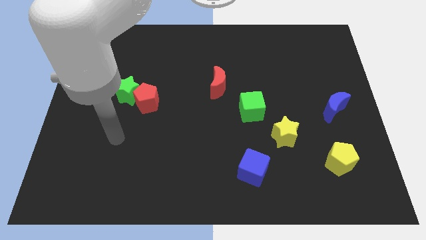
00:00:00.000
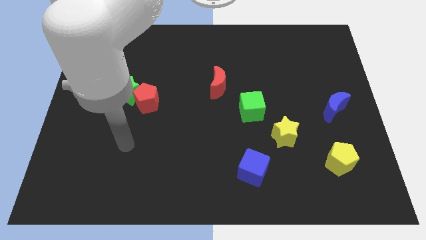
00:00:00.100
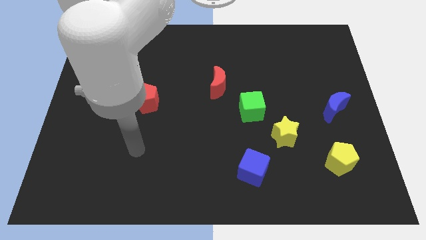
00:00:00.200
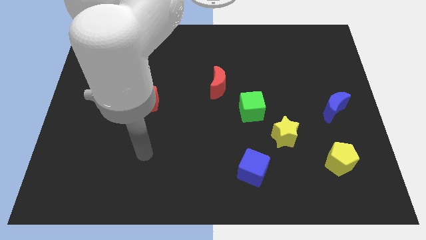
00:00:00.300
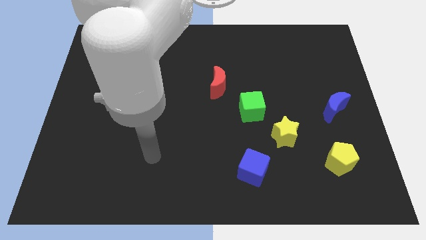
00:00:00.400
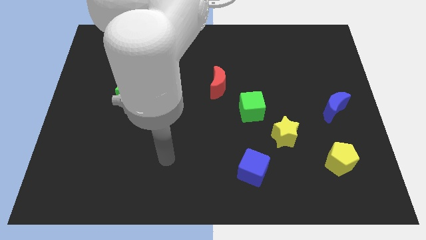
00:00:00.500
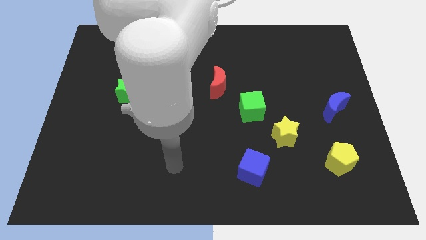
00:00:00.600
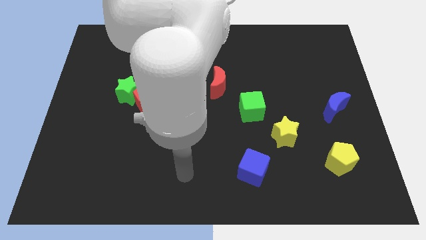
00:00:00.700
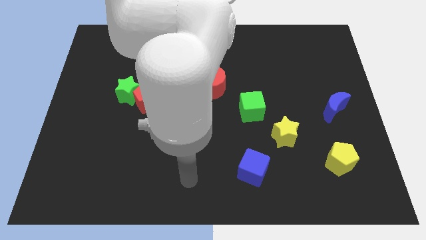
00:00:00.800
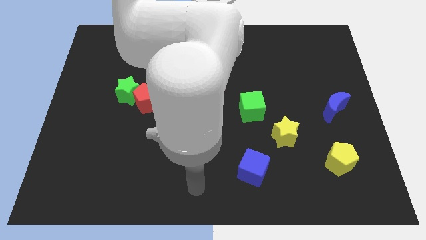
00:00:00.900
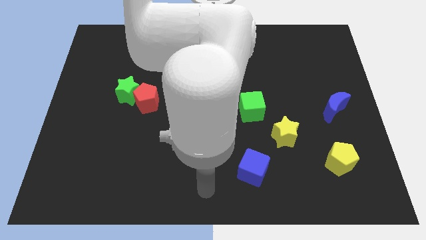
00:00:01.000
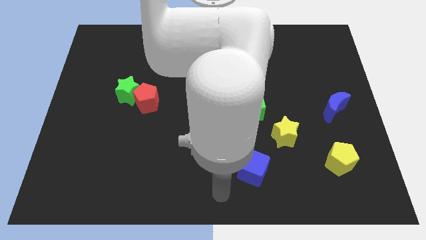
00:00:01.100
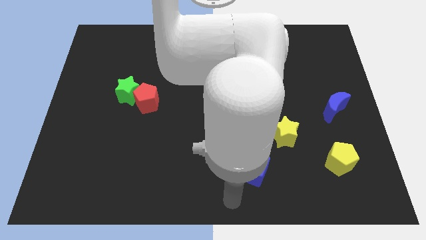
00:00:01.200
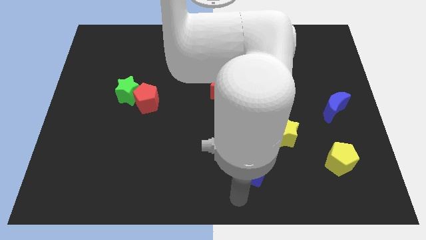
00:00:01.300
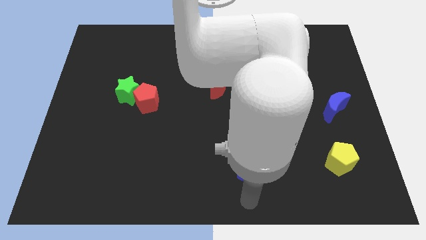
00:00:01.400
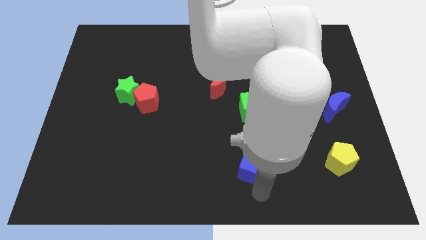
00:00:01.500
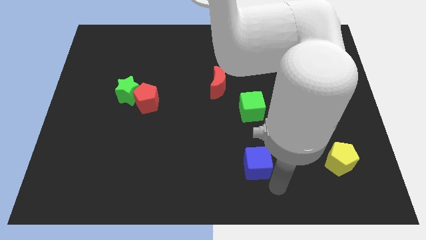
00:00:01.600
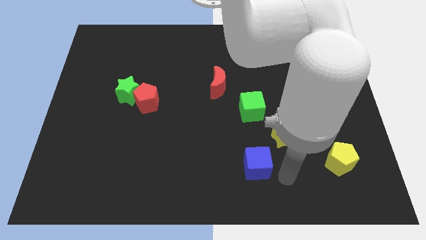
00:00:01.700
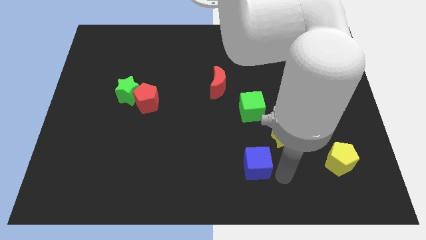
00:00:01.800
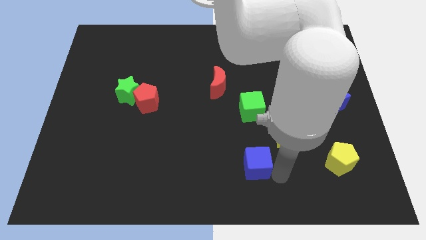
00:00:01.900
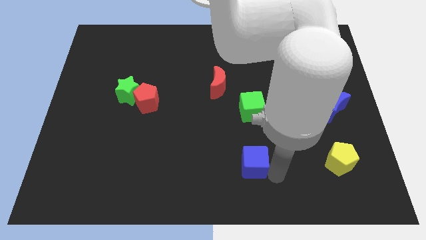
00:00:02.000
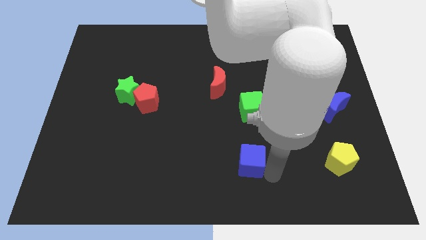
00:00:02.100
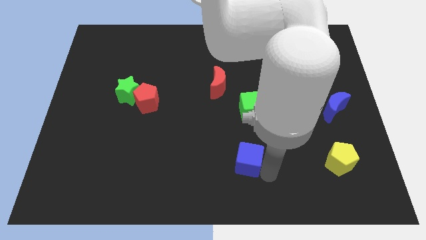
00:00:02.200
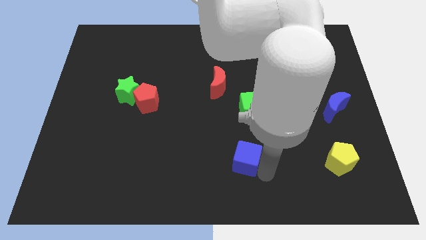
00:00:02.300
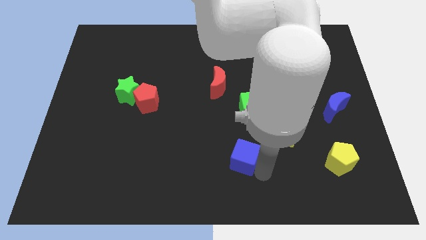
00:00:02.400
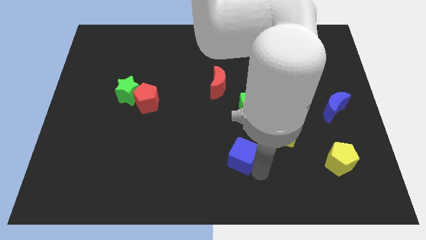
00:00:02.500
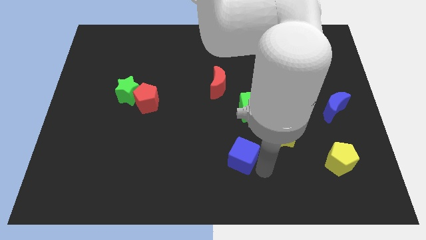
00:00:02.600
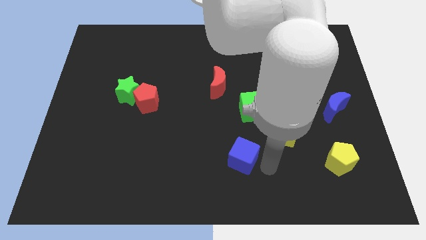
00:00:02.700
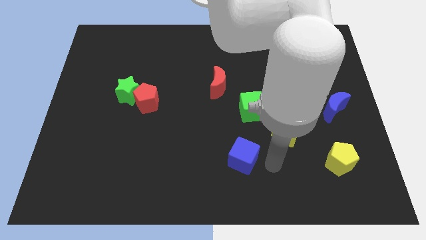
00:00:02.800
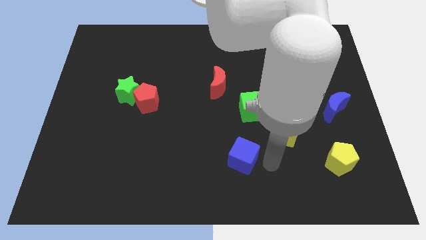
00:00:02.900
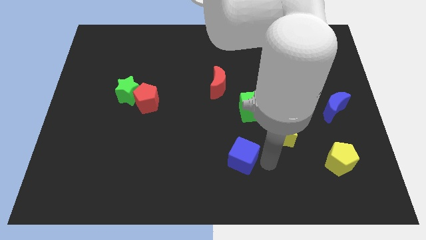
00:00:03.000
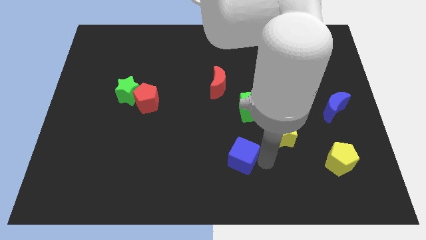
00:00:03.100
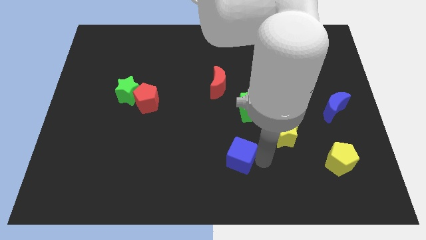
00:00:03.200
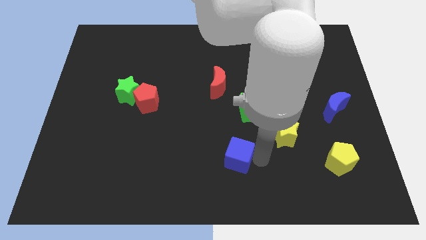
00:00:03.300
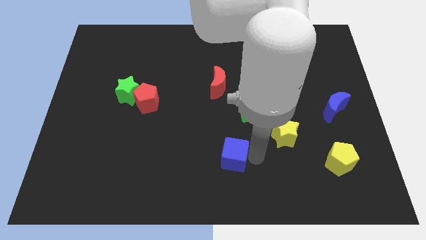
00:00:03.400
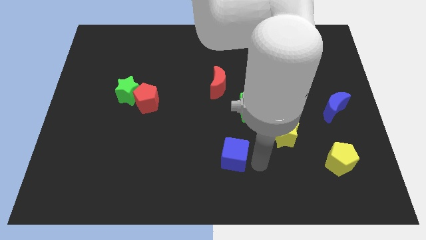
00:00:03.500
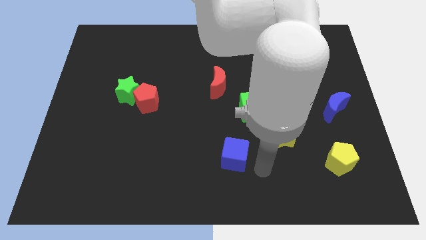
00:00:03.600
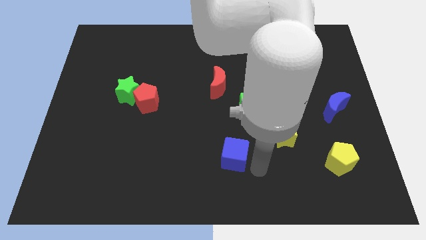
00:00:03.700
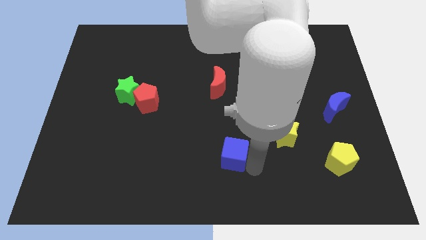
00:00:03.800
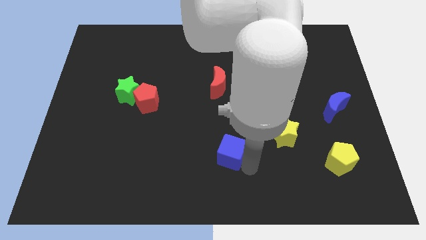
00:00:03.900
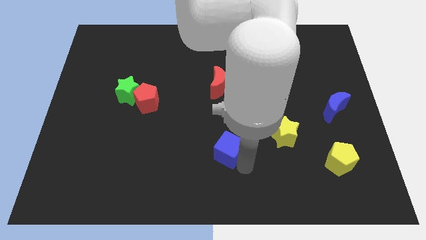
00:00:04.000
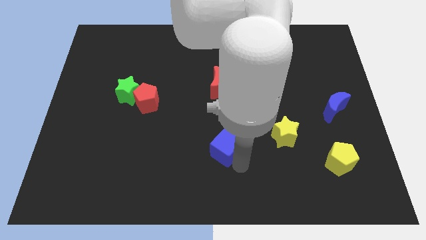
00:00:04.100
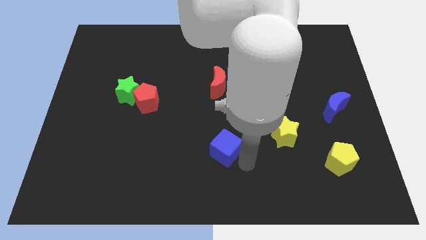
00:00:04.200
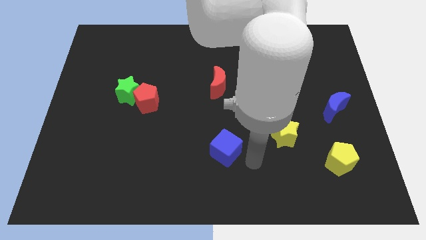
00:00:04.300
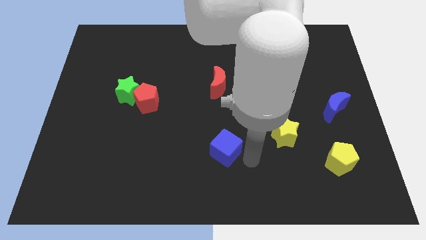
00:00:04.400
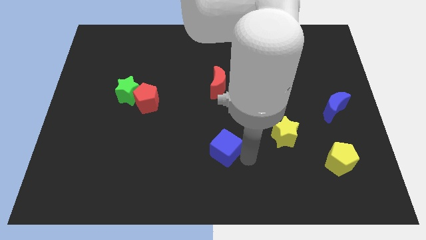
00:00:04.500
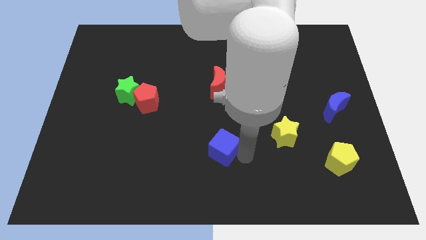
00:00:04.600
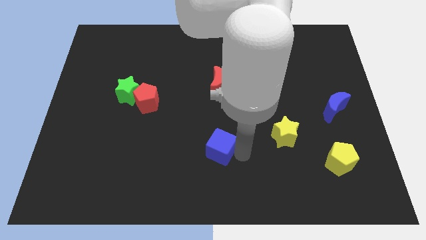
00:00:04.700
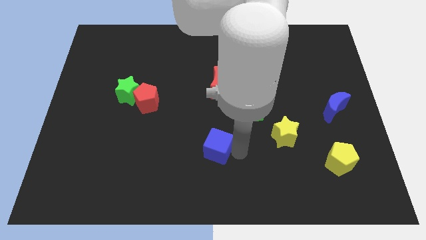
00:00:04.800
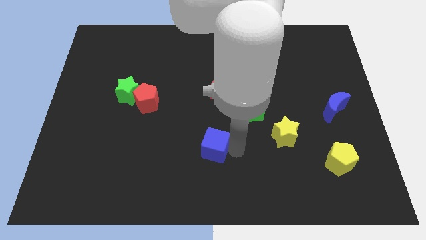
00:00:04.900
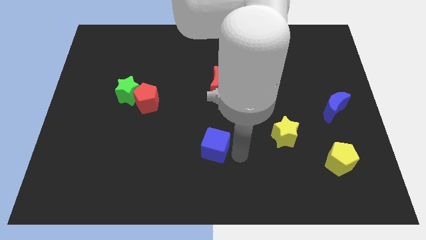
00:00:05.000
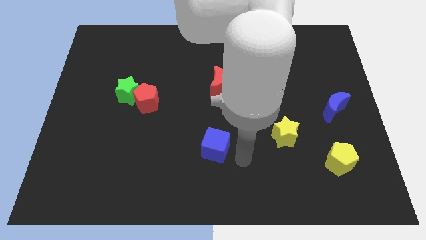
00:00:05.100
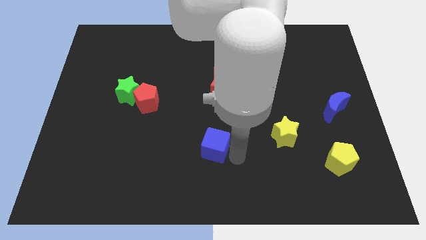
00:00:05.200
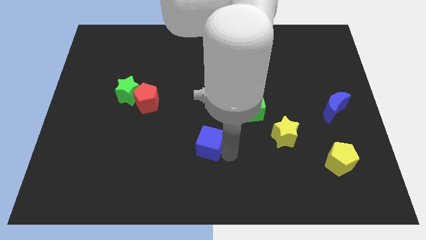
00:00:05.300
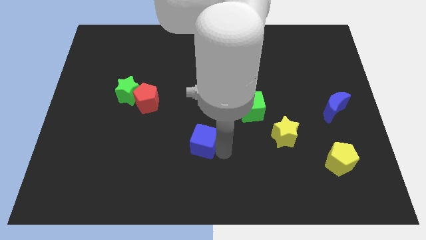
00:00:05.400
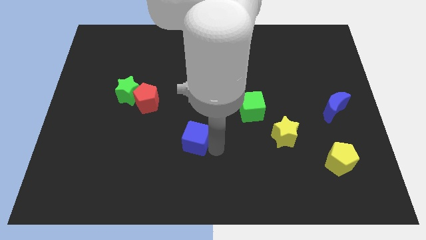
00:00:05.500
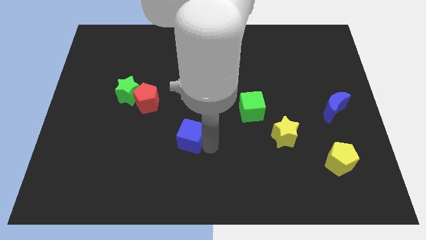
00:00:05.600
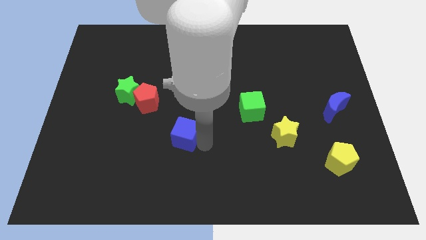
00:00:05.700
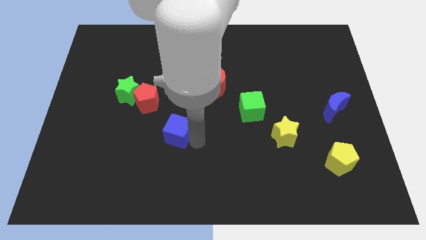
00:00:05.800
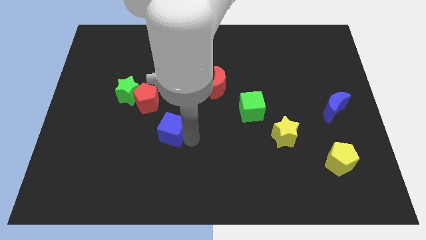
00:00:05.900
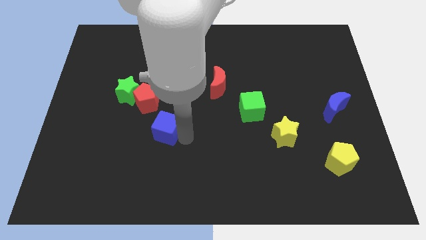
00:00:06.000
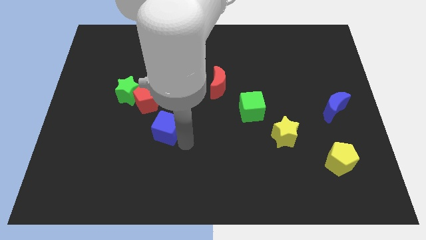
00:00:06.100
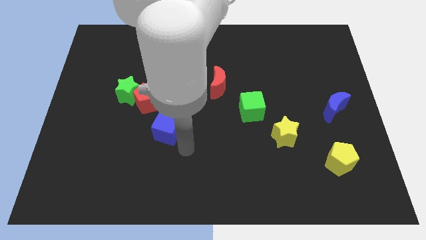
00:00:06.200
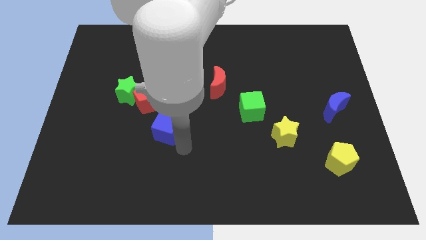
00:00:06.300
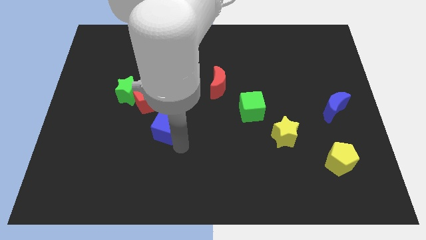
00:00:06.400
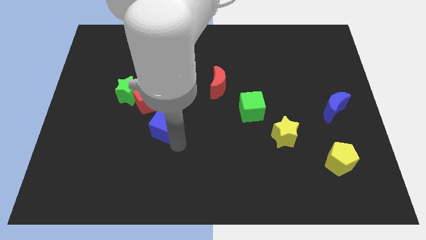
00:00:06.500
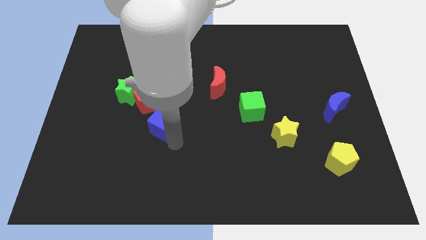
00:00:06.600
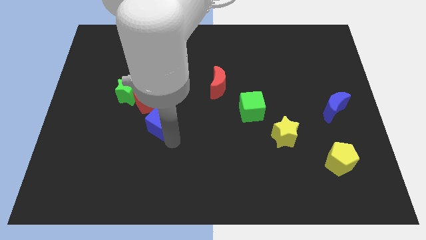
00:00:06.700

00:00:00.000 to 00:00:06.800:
push the blue cube to the bottom right side of the green star
